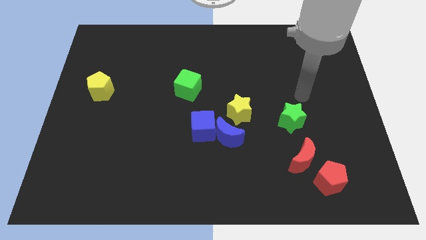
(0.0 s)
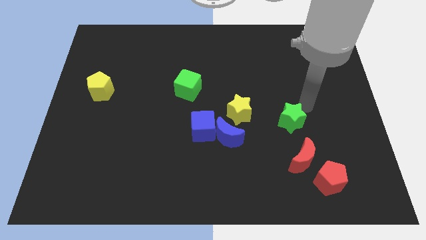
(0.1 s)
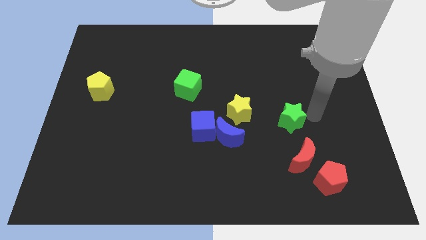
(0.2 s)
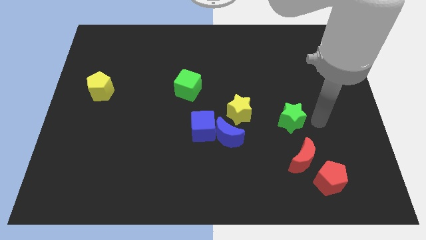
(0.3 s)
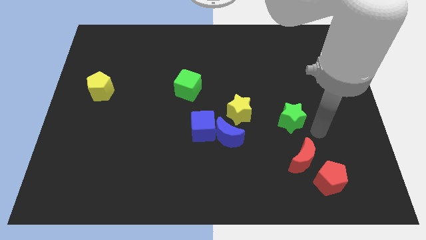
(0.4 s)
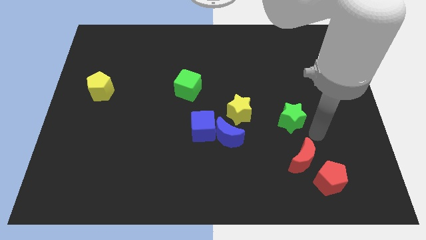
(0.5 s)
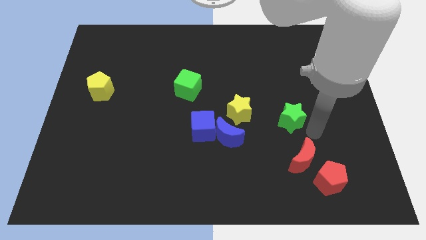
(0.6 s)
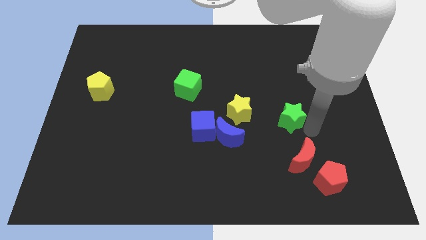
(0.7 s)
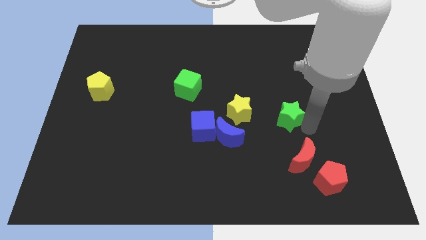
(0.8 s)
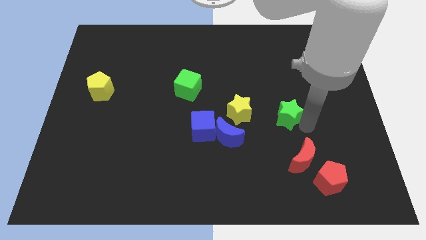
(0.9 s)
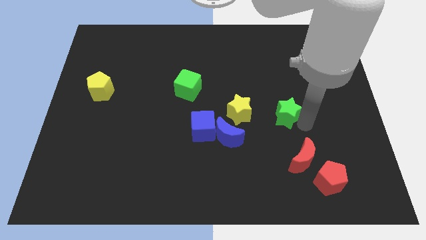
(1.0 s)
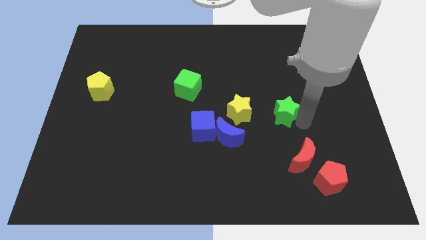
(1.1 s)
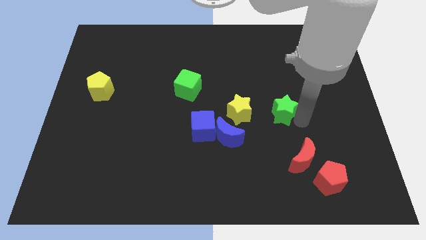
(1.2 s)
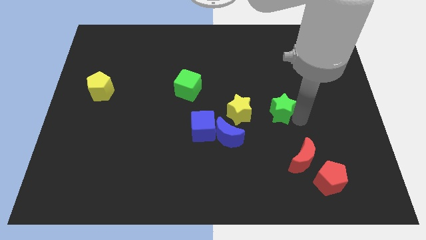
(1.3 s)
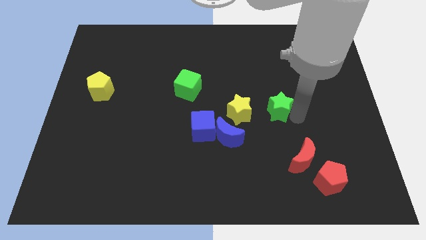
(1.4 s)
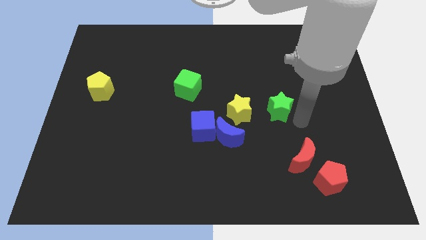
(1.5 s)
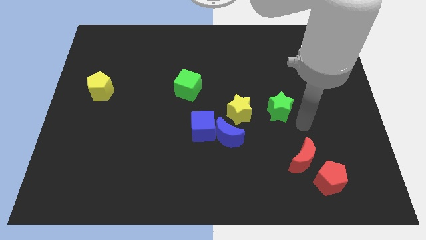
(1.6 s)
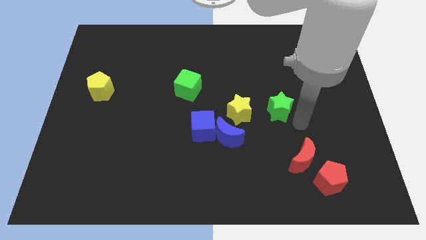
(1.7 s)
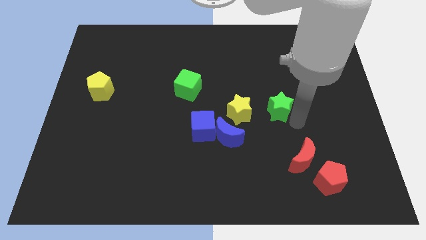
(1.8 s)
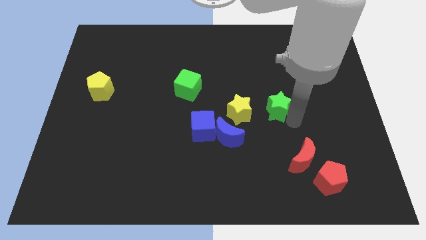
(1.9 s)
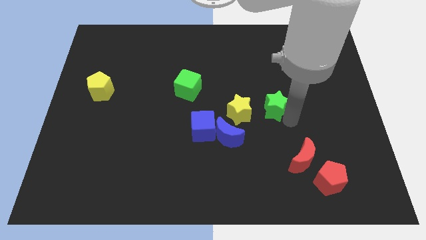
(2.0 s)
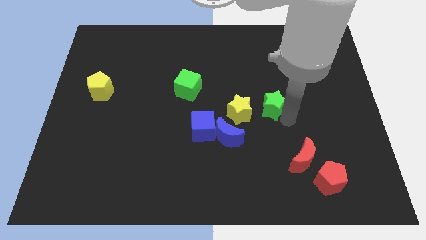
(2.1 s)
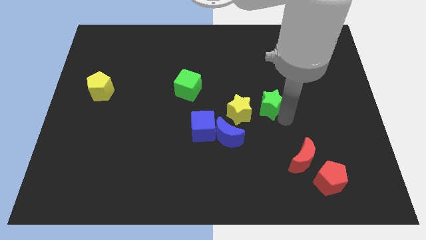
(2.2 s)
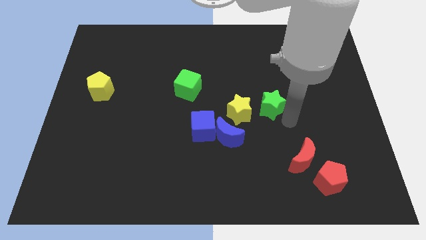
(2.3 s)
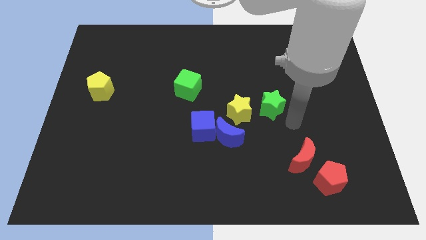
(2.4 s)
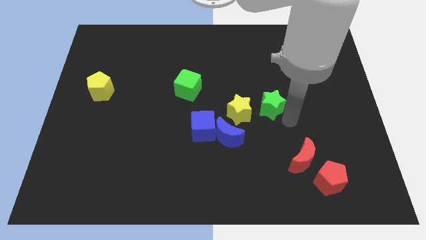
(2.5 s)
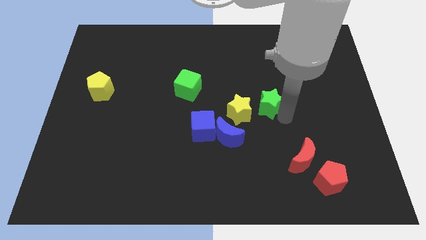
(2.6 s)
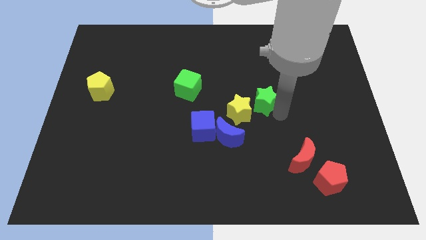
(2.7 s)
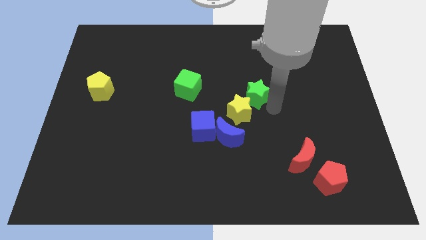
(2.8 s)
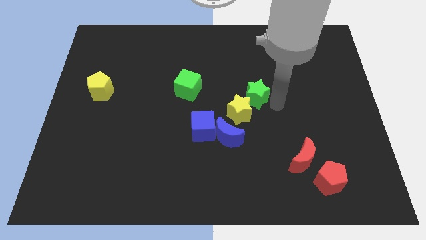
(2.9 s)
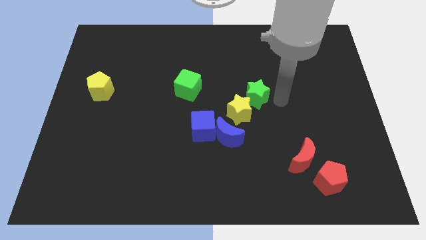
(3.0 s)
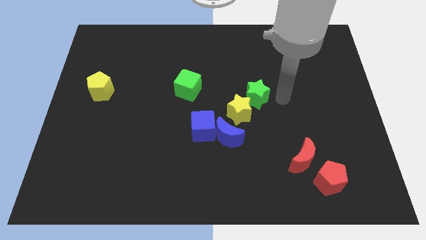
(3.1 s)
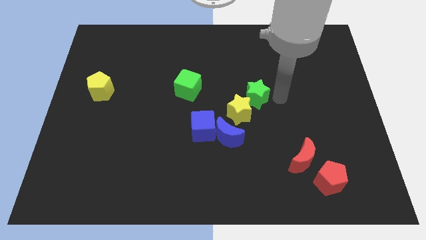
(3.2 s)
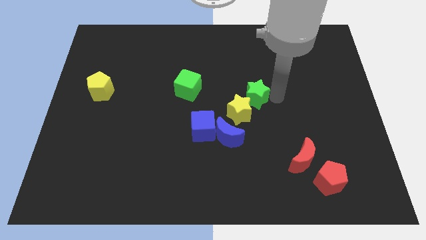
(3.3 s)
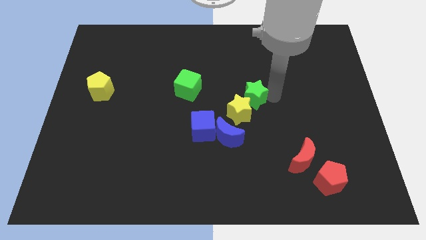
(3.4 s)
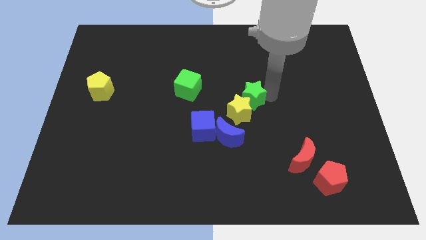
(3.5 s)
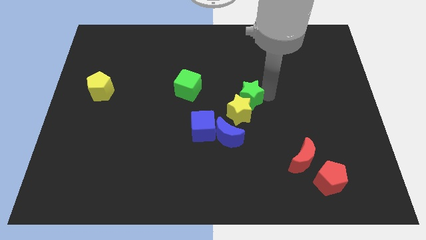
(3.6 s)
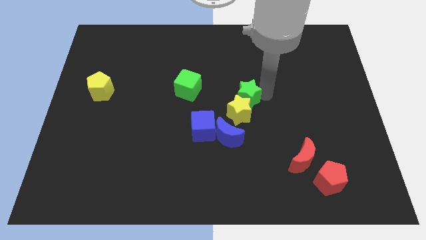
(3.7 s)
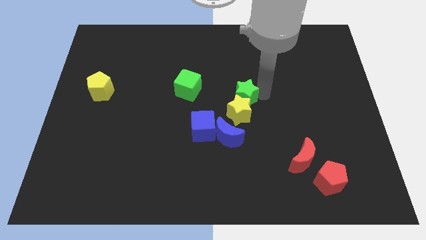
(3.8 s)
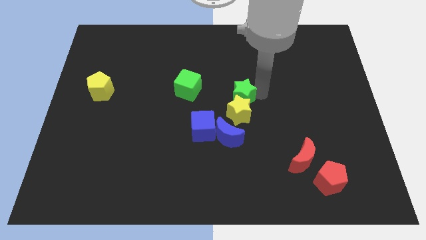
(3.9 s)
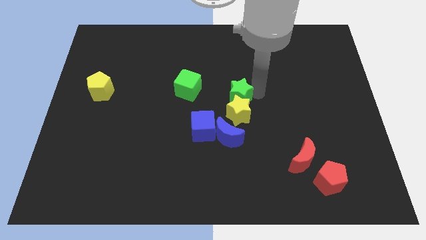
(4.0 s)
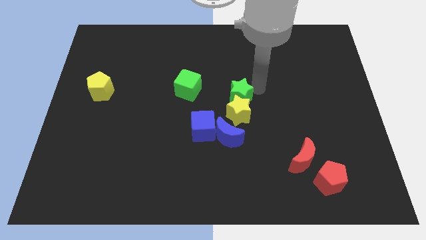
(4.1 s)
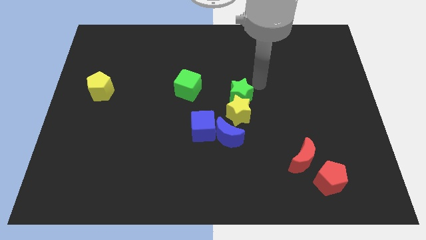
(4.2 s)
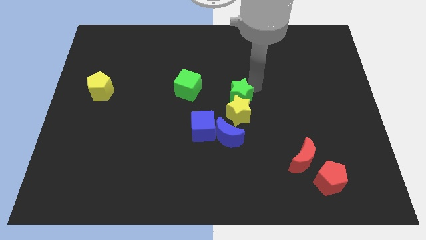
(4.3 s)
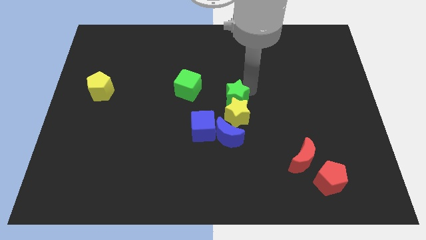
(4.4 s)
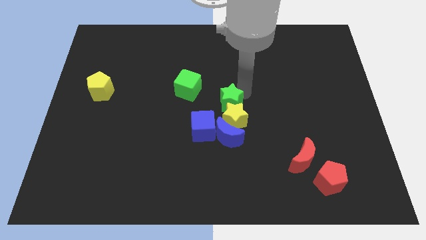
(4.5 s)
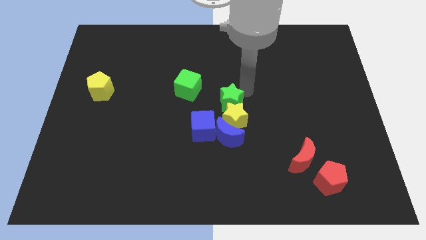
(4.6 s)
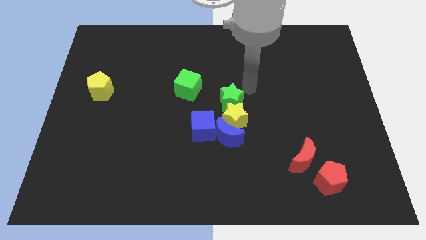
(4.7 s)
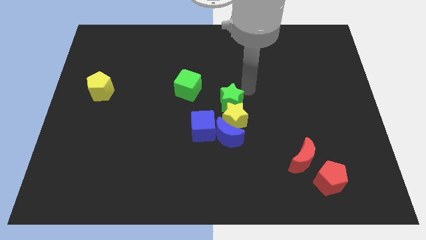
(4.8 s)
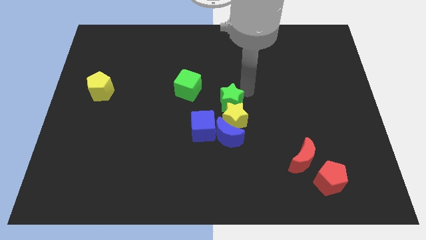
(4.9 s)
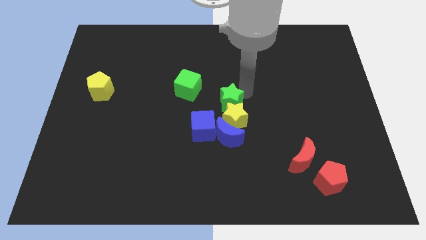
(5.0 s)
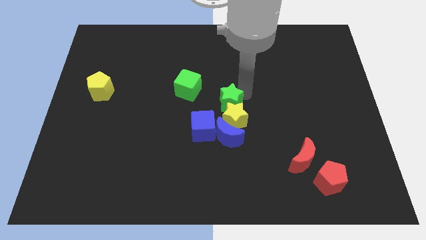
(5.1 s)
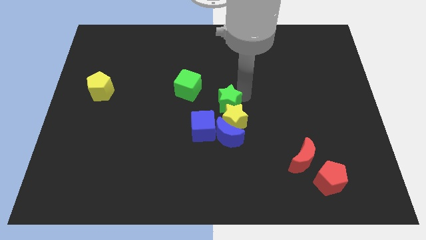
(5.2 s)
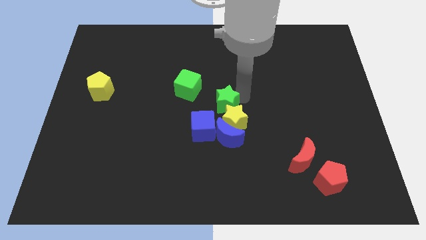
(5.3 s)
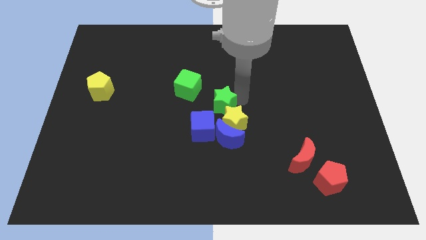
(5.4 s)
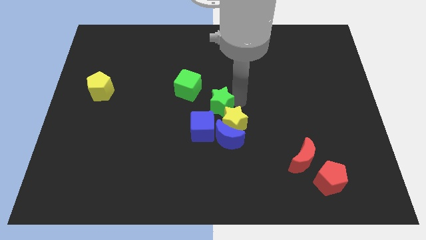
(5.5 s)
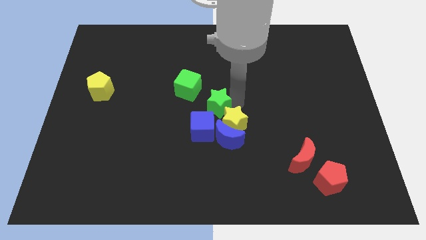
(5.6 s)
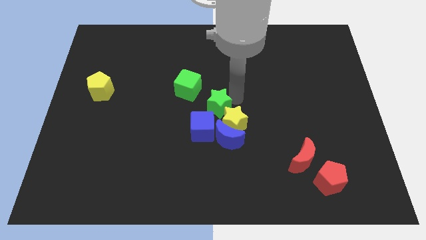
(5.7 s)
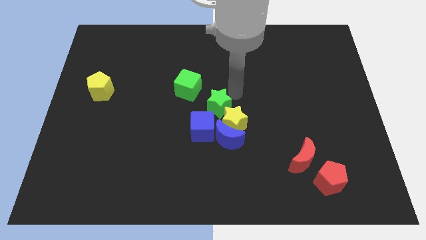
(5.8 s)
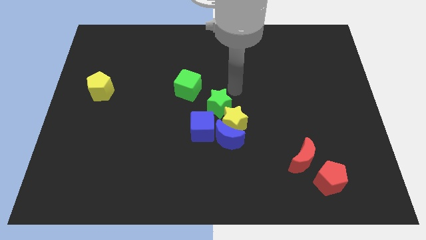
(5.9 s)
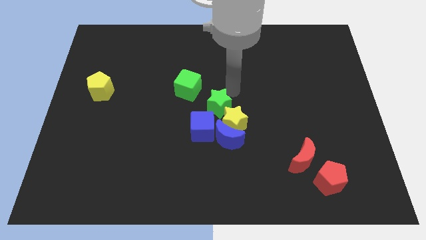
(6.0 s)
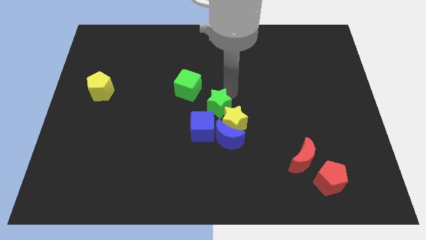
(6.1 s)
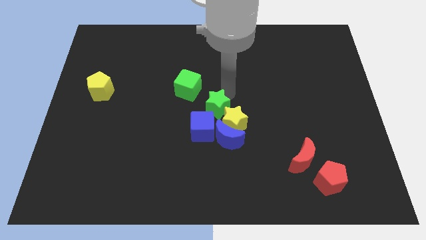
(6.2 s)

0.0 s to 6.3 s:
push the green star to the top left of the blue moon
